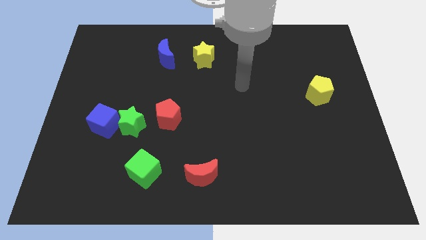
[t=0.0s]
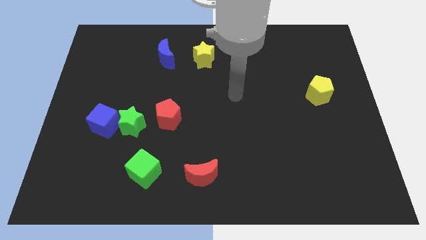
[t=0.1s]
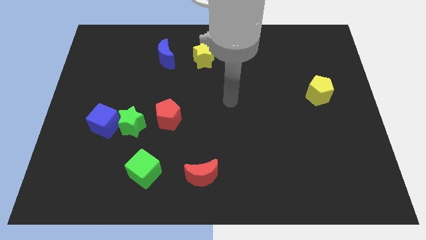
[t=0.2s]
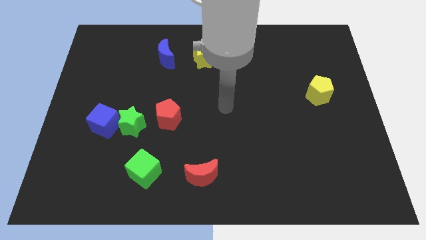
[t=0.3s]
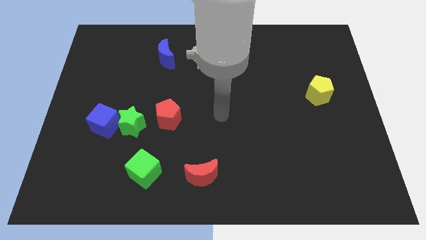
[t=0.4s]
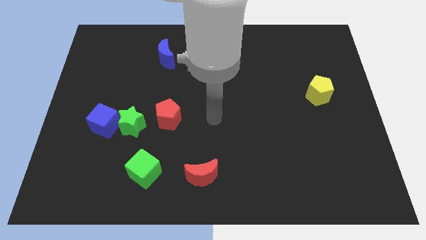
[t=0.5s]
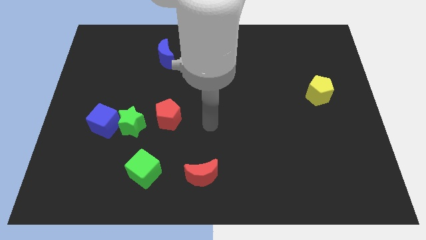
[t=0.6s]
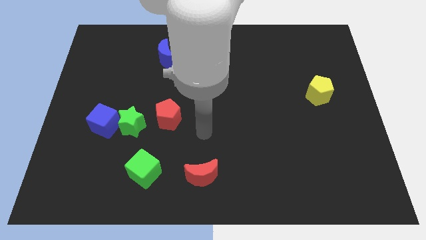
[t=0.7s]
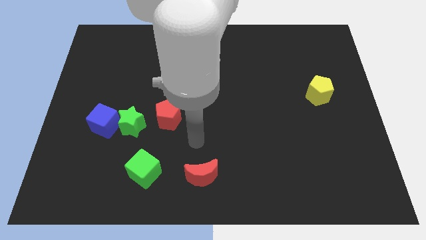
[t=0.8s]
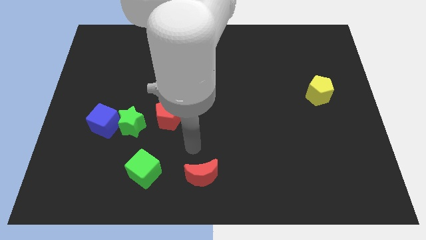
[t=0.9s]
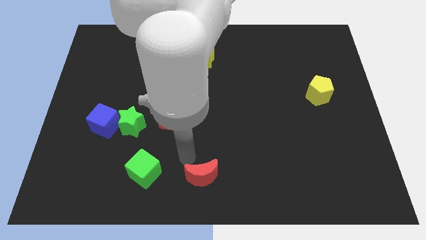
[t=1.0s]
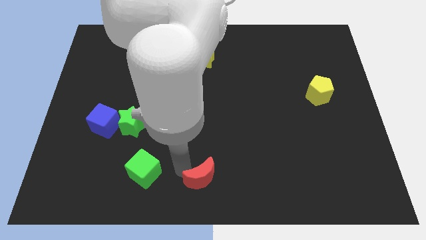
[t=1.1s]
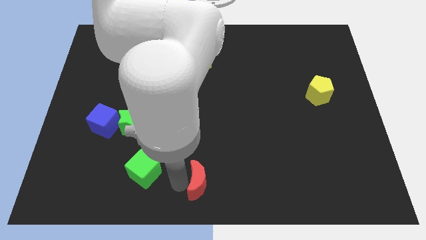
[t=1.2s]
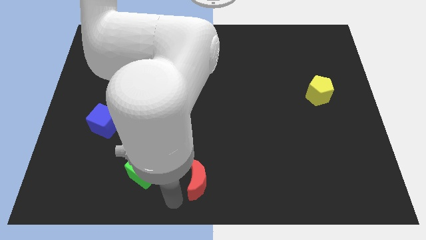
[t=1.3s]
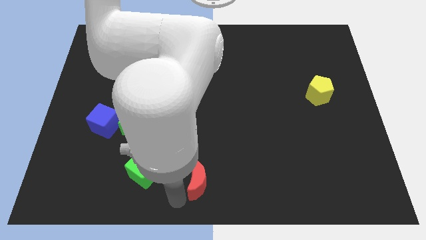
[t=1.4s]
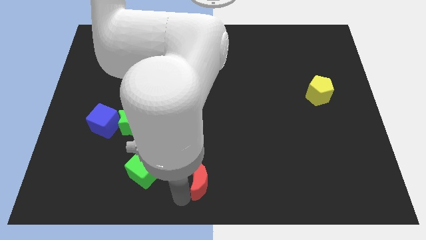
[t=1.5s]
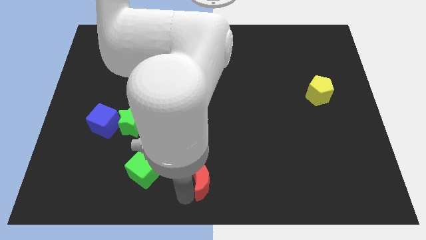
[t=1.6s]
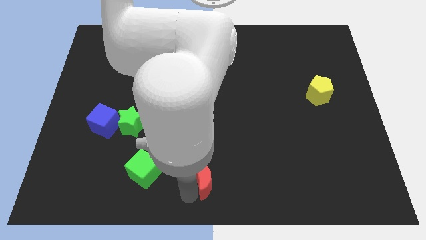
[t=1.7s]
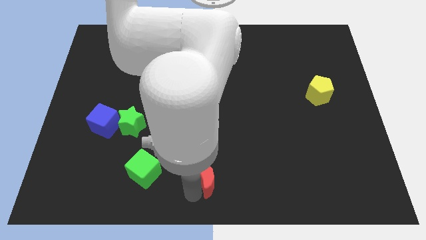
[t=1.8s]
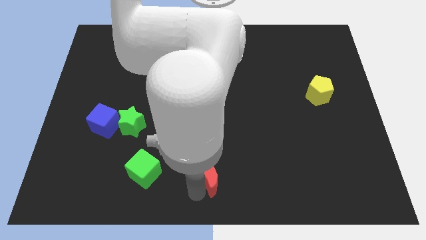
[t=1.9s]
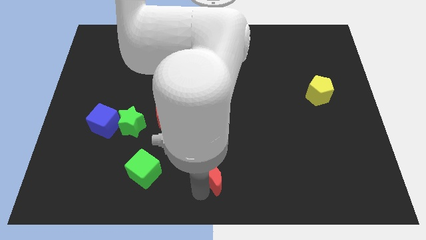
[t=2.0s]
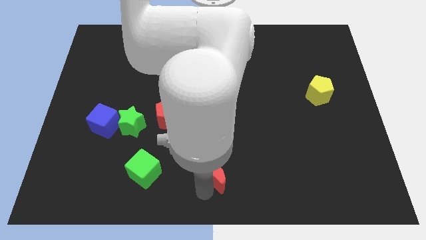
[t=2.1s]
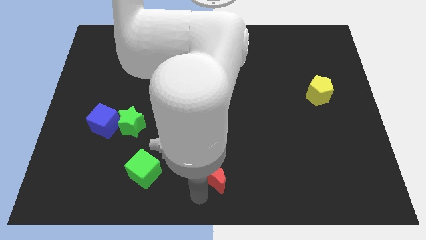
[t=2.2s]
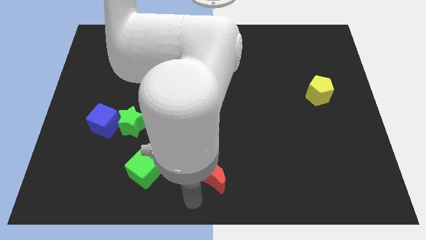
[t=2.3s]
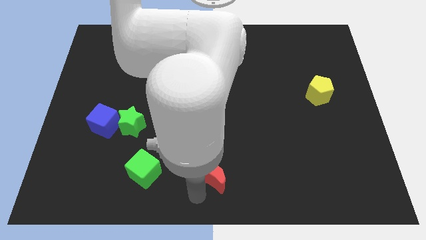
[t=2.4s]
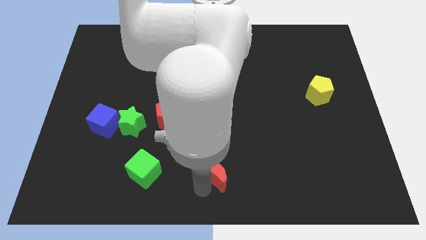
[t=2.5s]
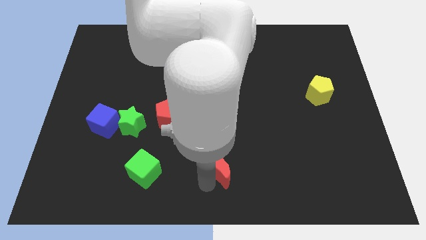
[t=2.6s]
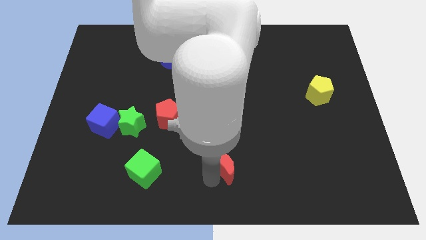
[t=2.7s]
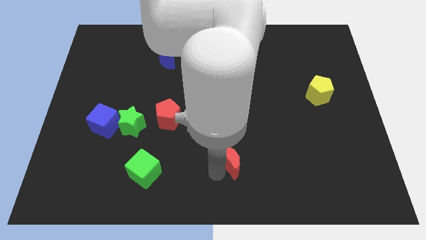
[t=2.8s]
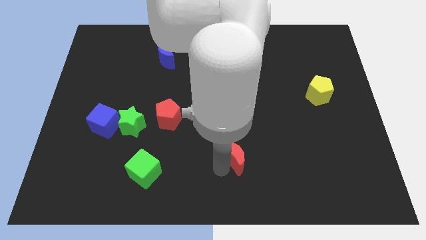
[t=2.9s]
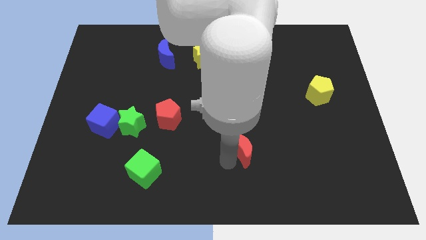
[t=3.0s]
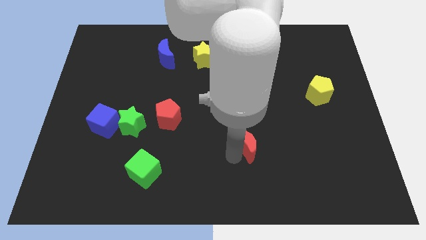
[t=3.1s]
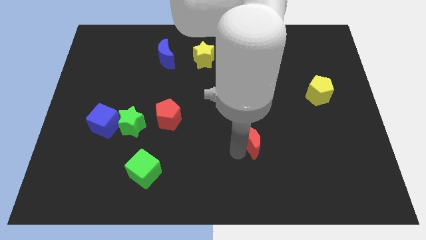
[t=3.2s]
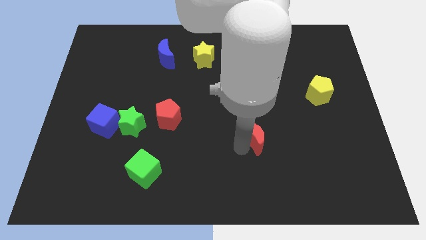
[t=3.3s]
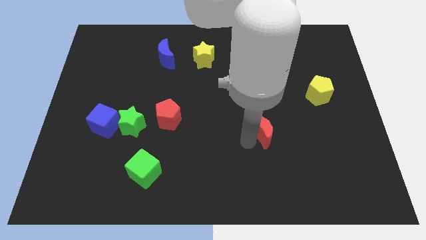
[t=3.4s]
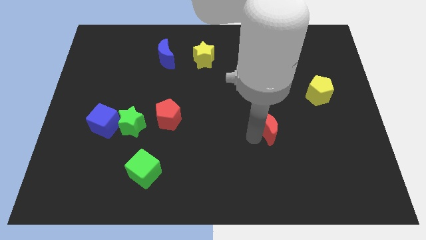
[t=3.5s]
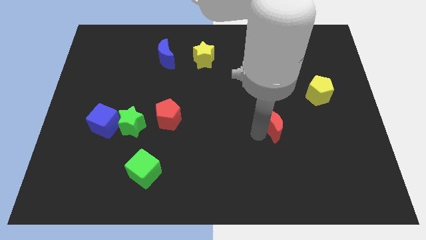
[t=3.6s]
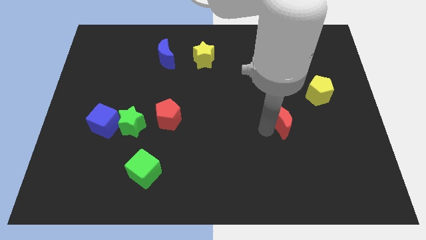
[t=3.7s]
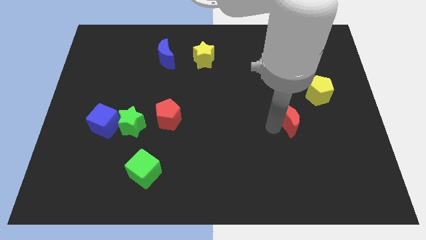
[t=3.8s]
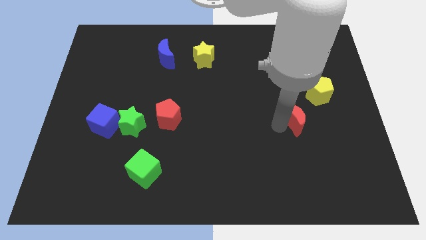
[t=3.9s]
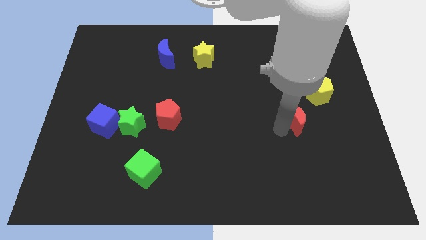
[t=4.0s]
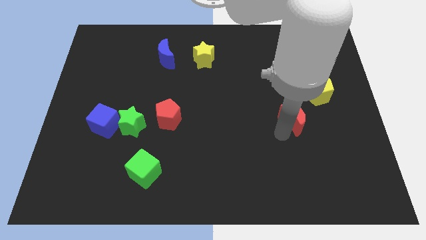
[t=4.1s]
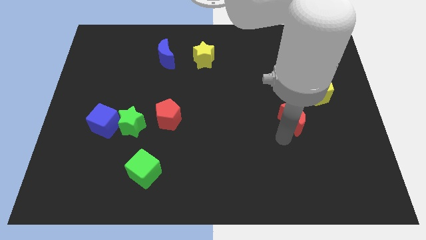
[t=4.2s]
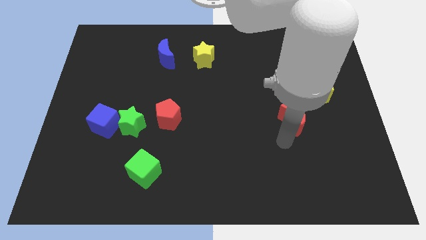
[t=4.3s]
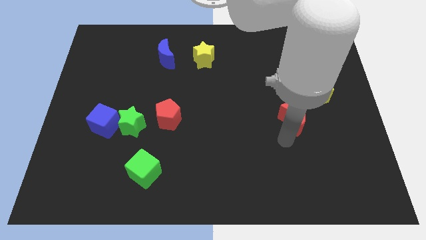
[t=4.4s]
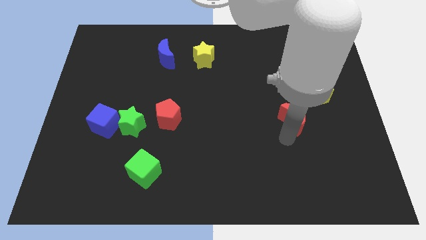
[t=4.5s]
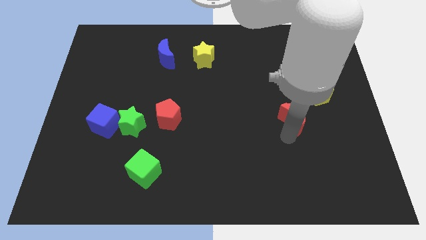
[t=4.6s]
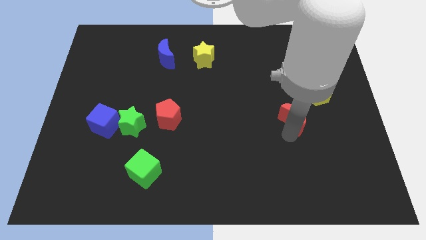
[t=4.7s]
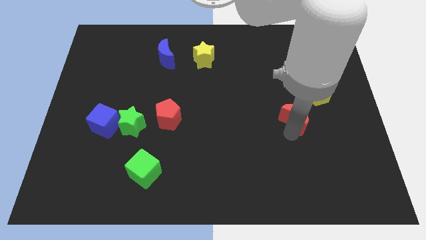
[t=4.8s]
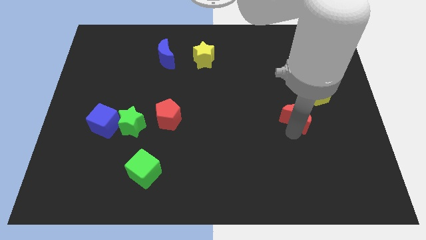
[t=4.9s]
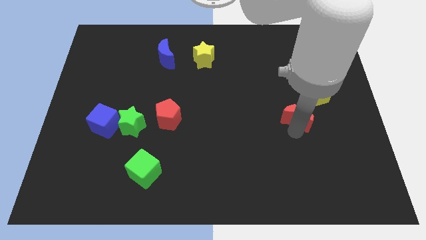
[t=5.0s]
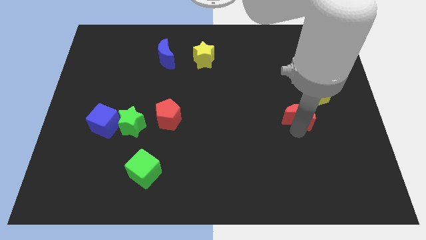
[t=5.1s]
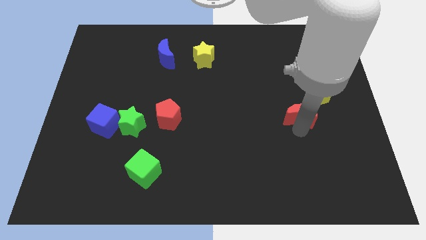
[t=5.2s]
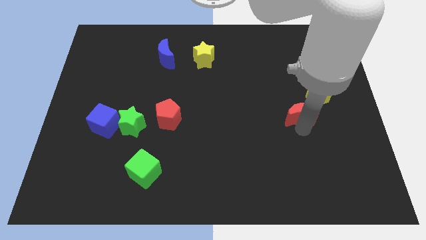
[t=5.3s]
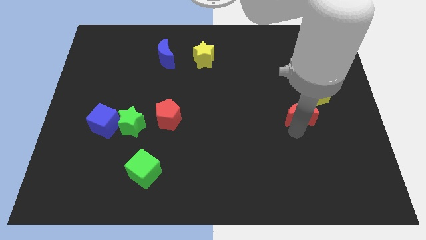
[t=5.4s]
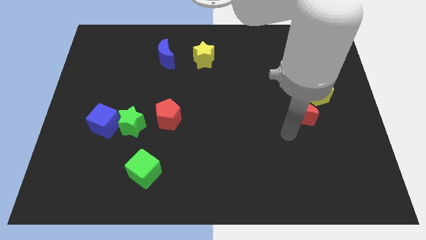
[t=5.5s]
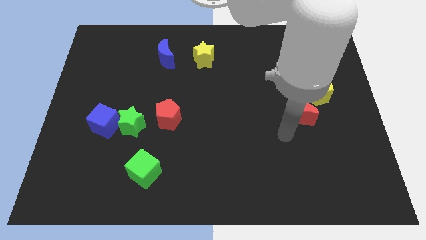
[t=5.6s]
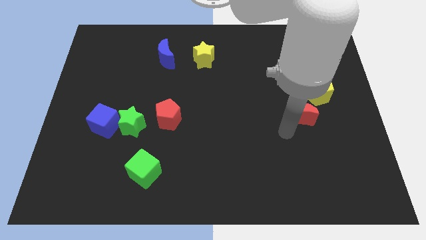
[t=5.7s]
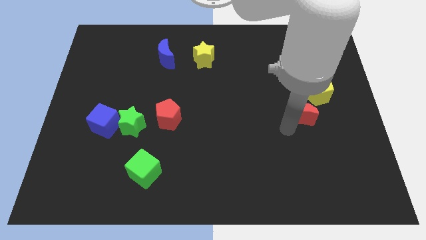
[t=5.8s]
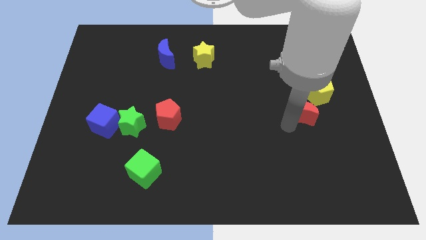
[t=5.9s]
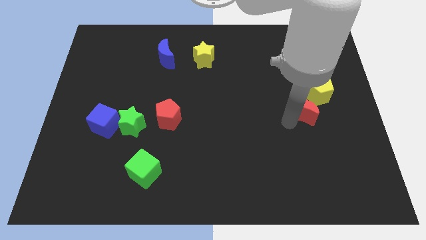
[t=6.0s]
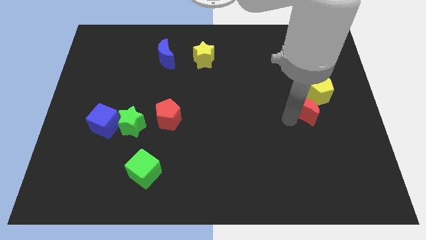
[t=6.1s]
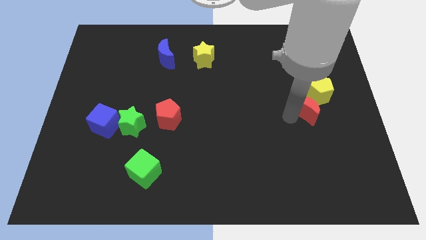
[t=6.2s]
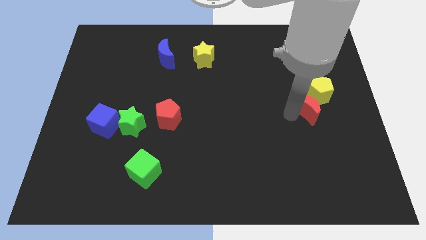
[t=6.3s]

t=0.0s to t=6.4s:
push the red moon to the yellow pentagon

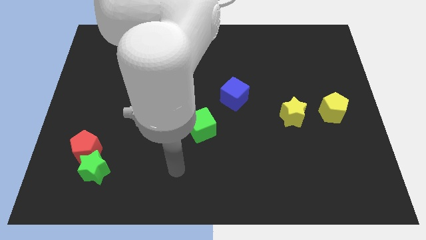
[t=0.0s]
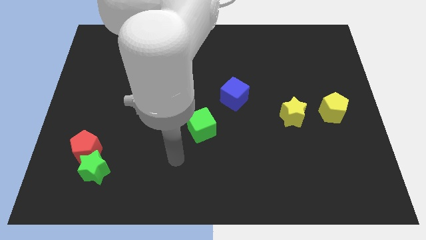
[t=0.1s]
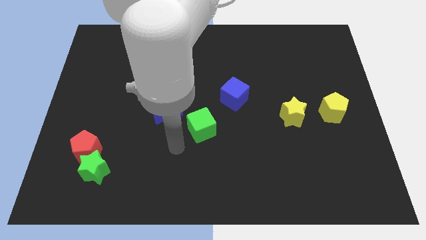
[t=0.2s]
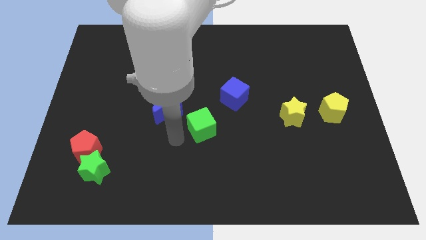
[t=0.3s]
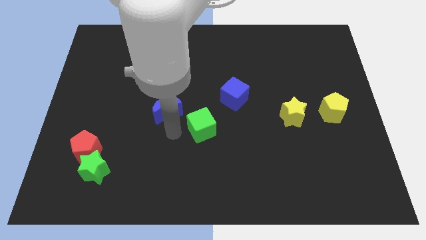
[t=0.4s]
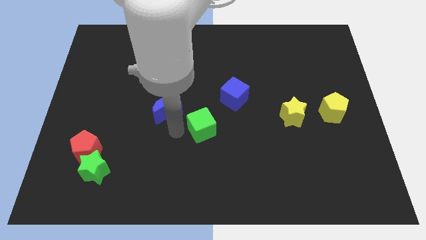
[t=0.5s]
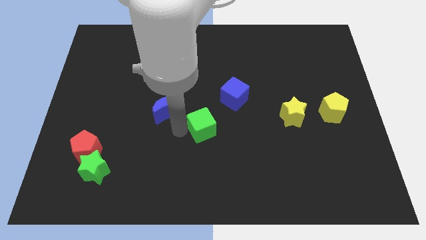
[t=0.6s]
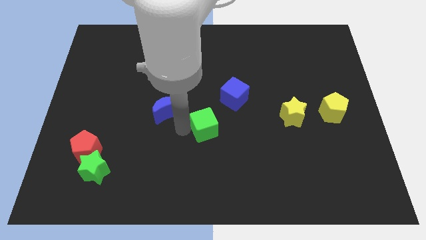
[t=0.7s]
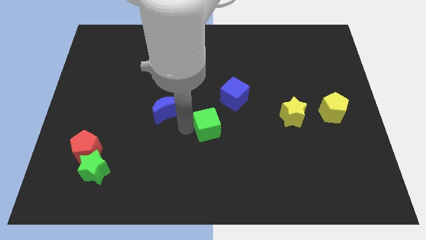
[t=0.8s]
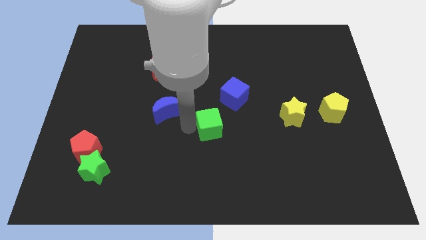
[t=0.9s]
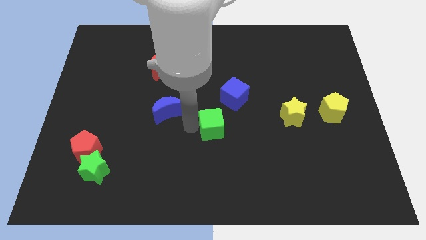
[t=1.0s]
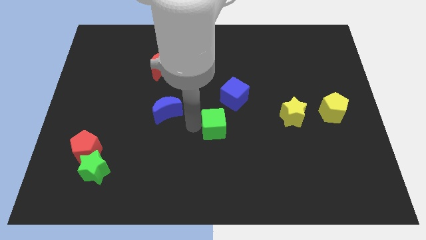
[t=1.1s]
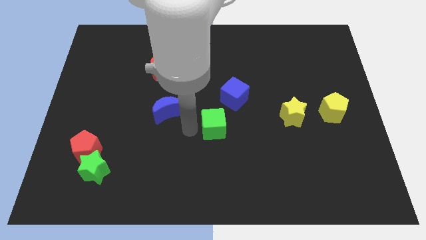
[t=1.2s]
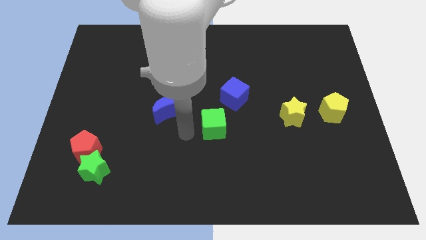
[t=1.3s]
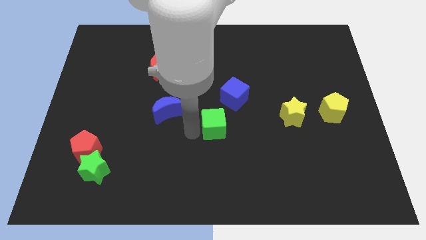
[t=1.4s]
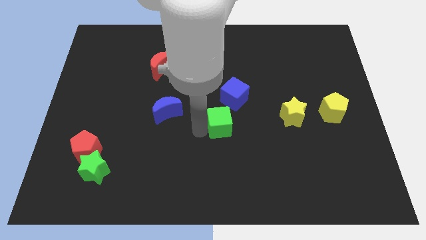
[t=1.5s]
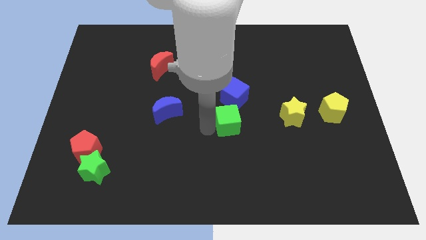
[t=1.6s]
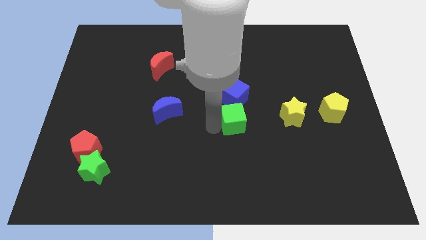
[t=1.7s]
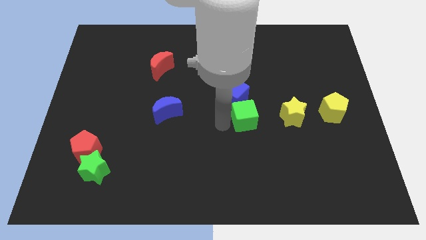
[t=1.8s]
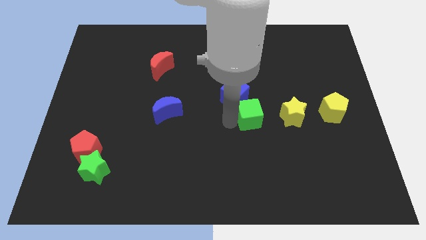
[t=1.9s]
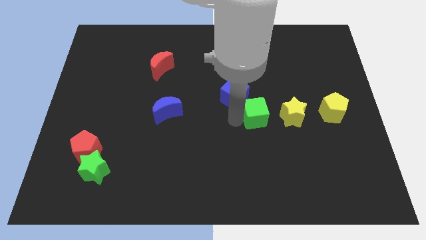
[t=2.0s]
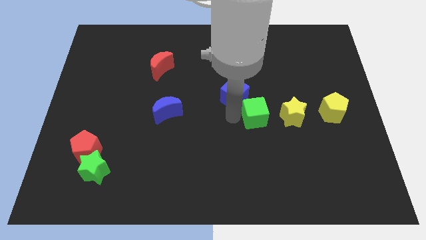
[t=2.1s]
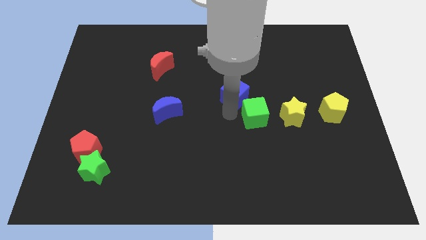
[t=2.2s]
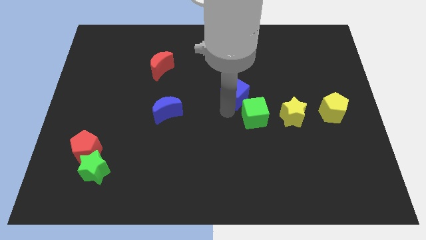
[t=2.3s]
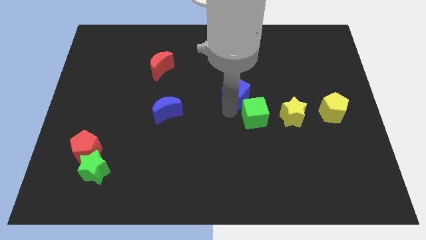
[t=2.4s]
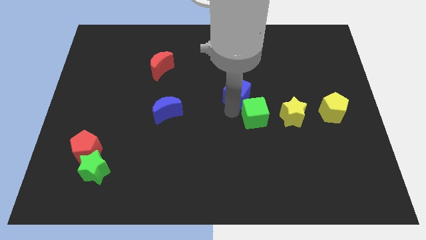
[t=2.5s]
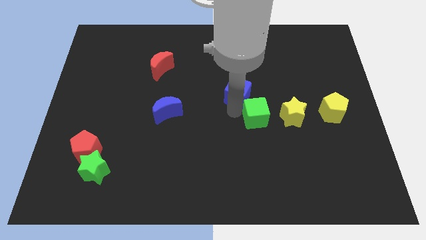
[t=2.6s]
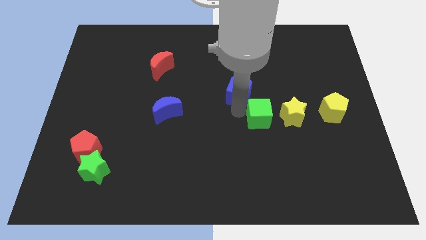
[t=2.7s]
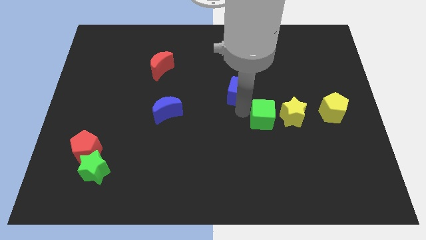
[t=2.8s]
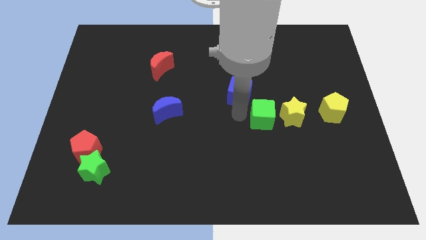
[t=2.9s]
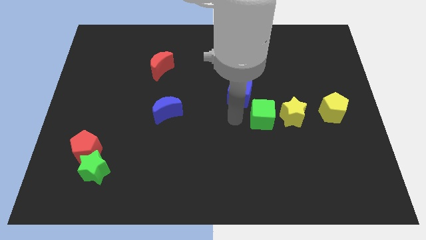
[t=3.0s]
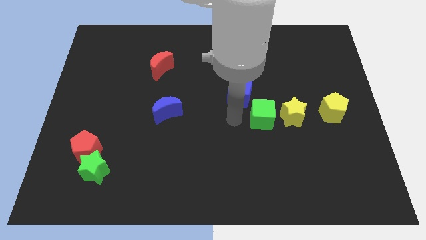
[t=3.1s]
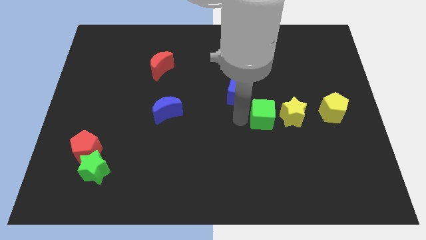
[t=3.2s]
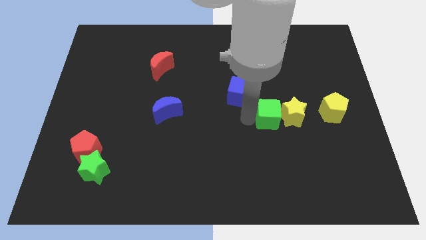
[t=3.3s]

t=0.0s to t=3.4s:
push the green cube towards the yellow star
